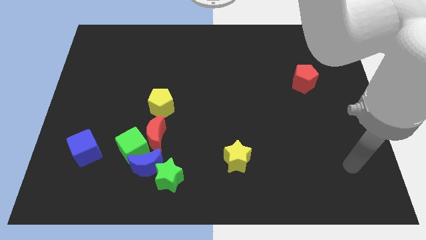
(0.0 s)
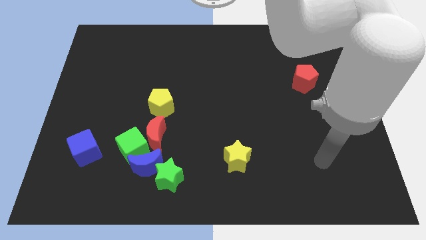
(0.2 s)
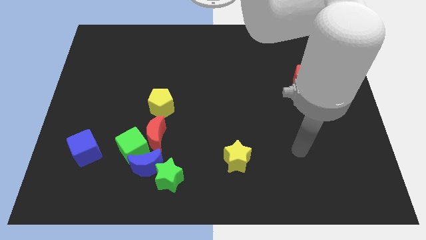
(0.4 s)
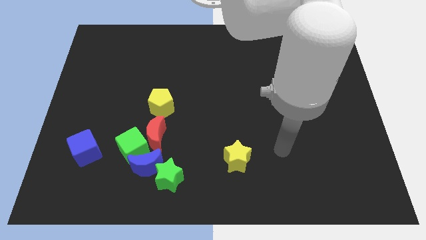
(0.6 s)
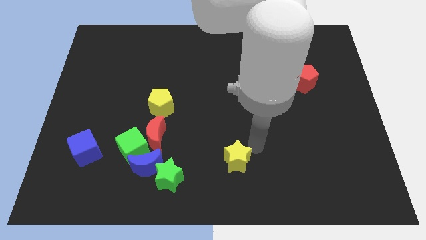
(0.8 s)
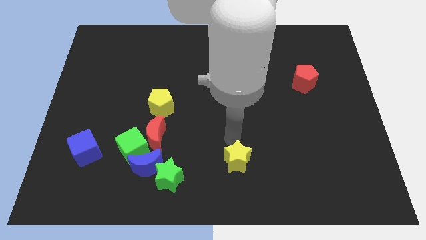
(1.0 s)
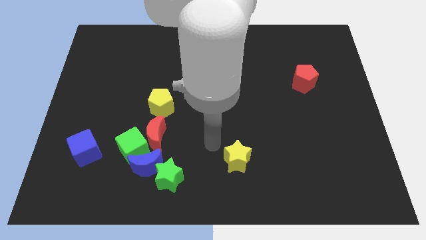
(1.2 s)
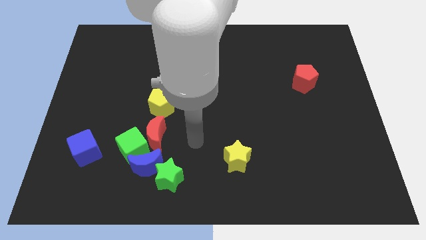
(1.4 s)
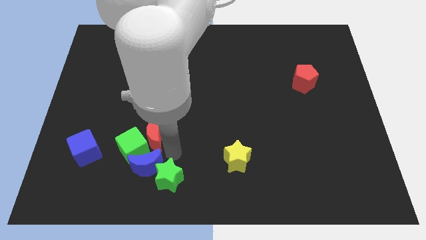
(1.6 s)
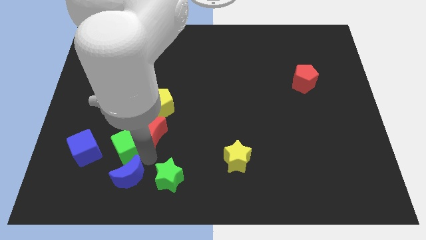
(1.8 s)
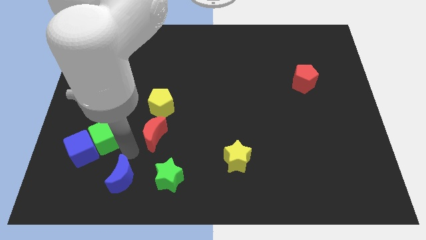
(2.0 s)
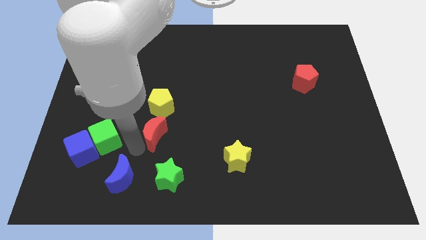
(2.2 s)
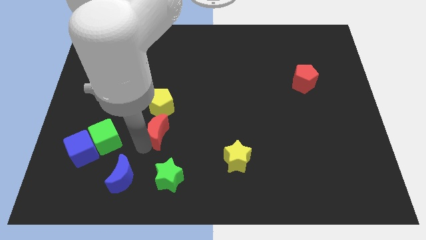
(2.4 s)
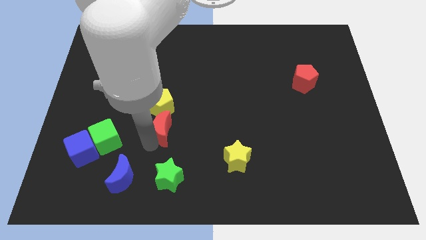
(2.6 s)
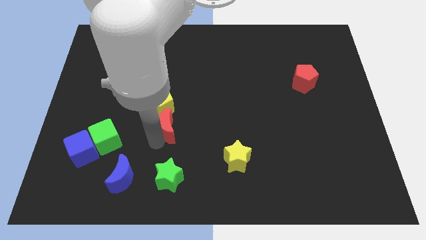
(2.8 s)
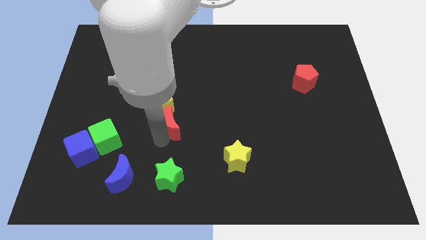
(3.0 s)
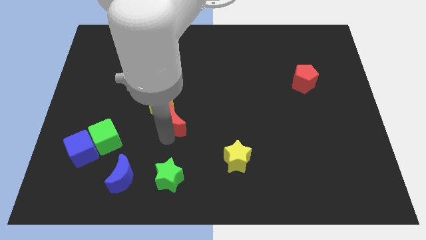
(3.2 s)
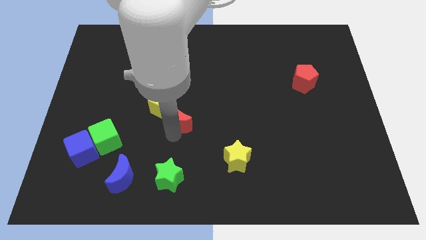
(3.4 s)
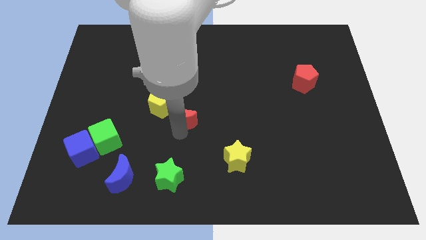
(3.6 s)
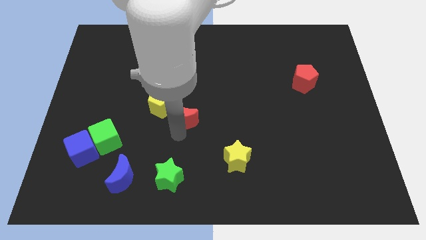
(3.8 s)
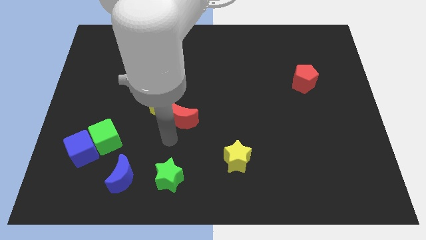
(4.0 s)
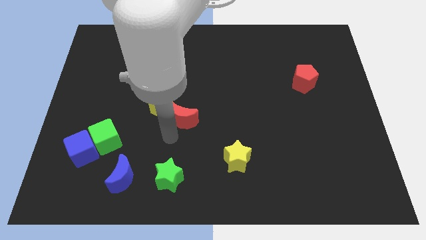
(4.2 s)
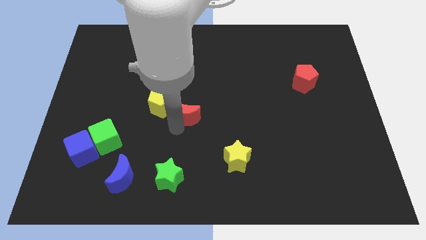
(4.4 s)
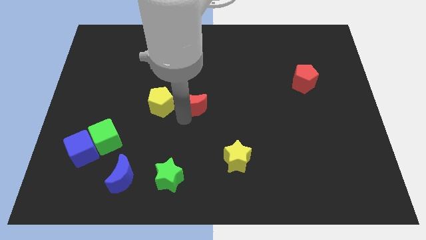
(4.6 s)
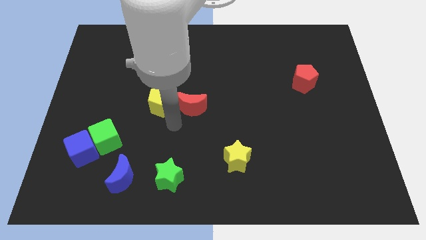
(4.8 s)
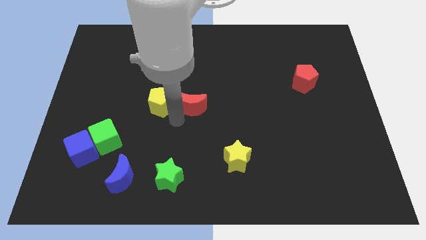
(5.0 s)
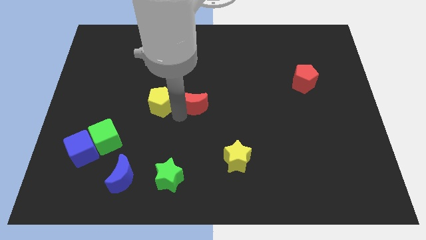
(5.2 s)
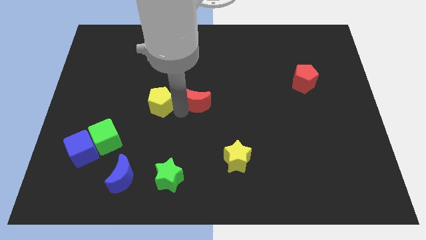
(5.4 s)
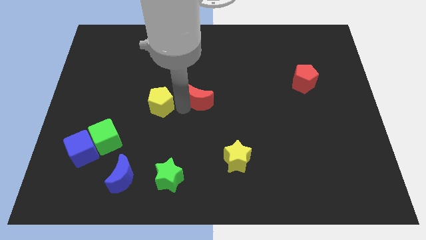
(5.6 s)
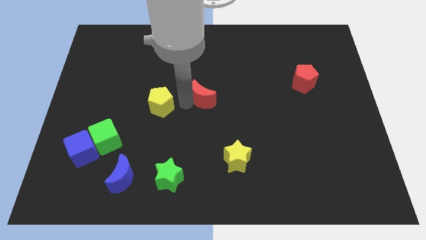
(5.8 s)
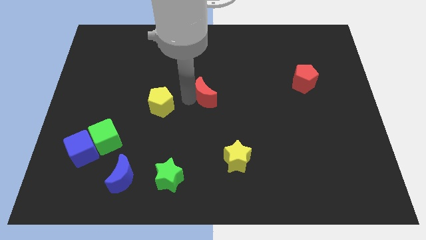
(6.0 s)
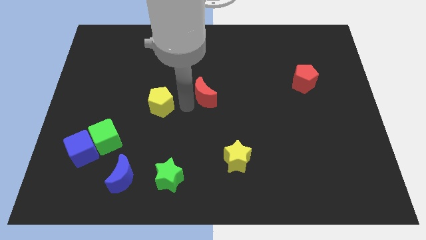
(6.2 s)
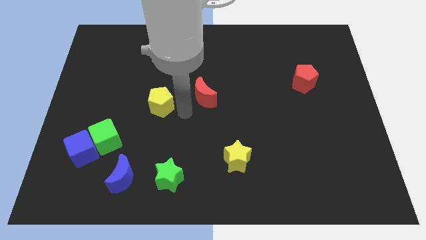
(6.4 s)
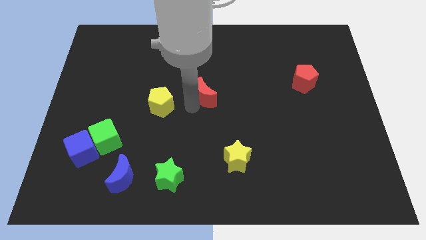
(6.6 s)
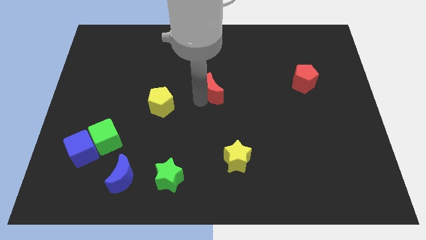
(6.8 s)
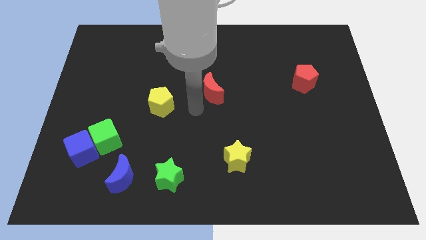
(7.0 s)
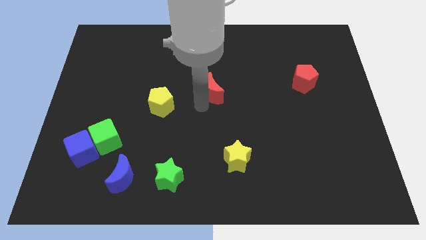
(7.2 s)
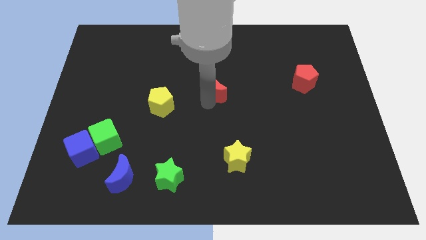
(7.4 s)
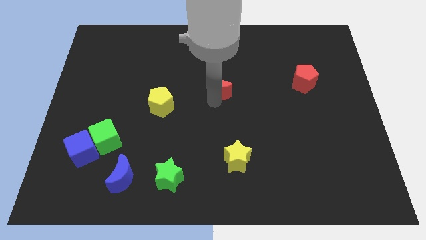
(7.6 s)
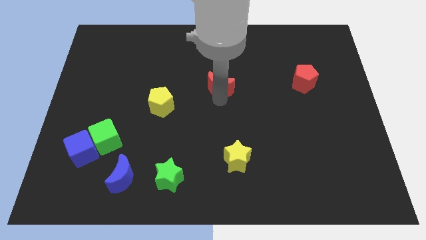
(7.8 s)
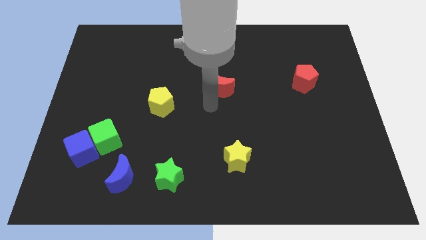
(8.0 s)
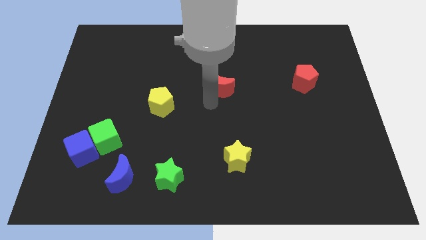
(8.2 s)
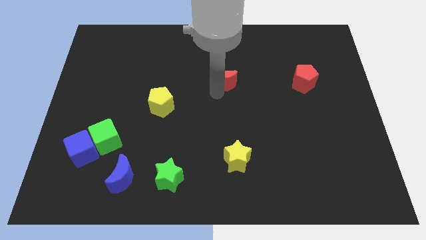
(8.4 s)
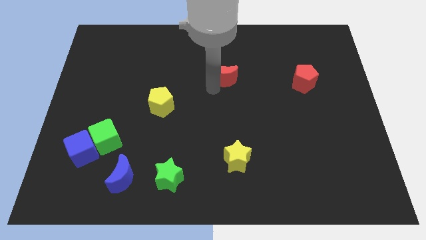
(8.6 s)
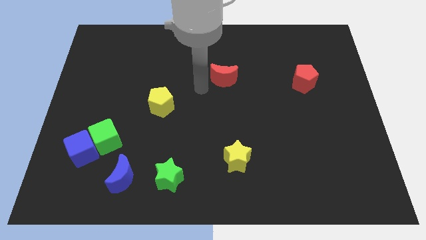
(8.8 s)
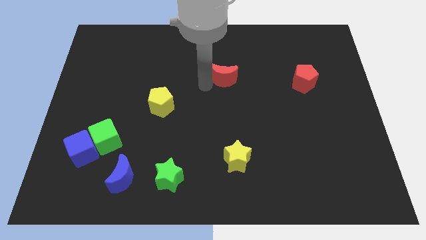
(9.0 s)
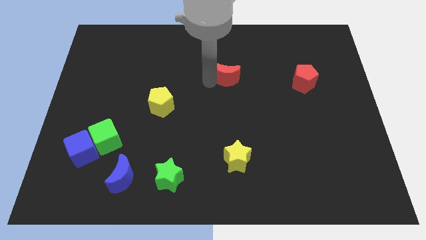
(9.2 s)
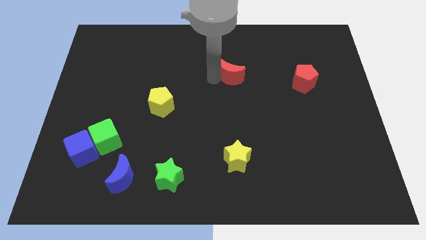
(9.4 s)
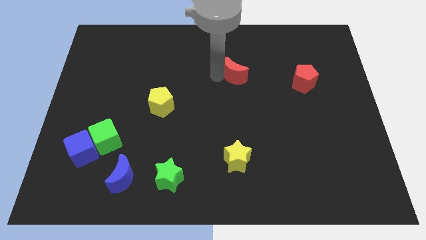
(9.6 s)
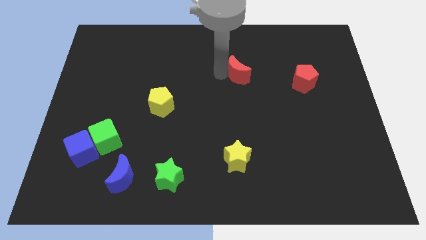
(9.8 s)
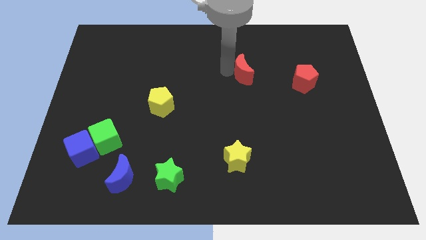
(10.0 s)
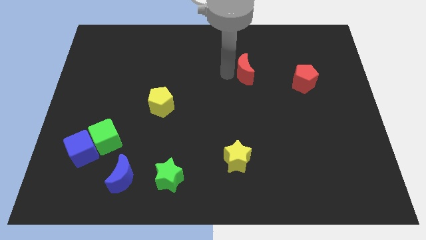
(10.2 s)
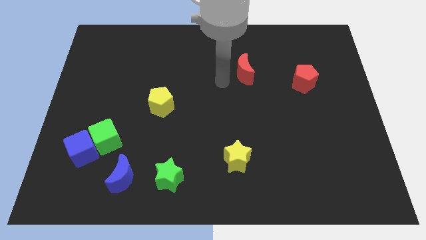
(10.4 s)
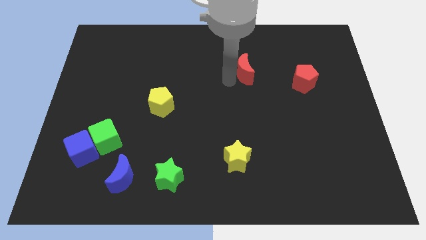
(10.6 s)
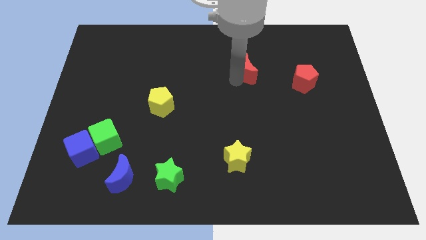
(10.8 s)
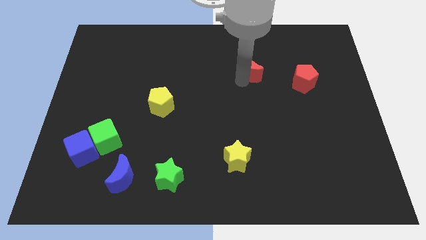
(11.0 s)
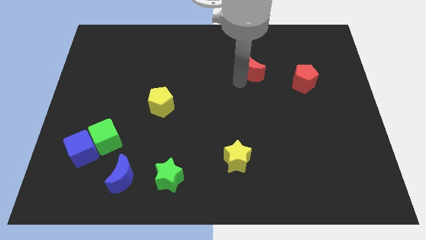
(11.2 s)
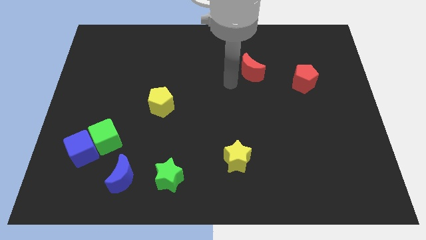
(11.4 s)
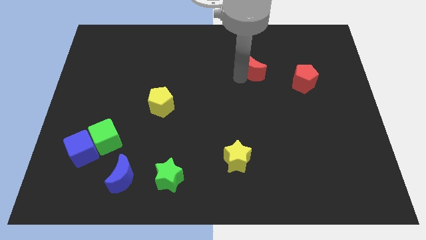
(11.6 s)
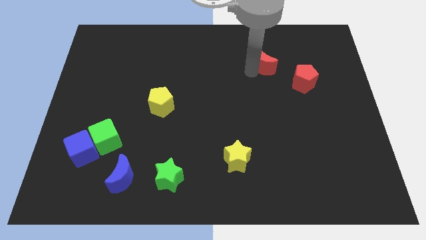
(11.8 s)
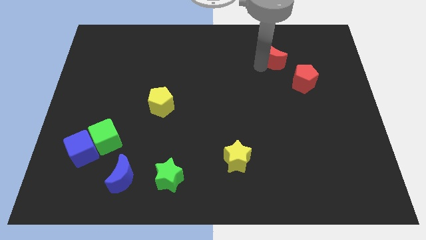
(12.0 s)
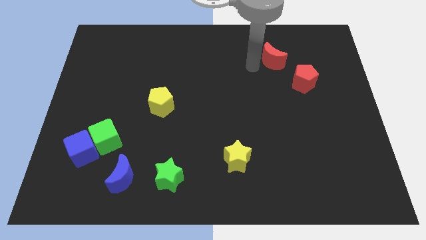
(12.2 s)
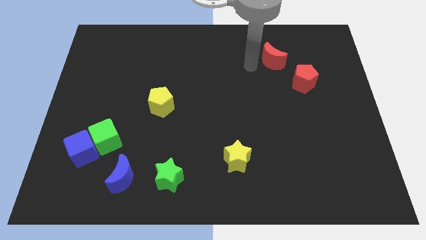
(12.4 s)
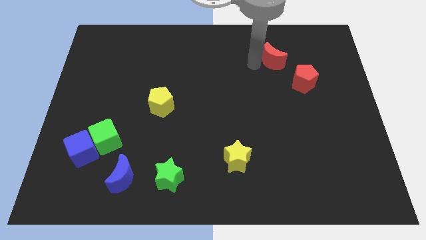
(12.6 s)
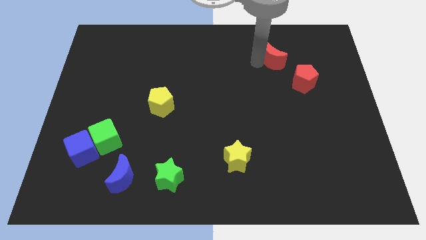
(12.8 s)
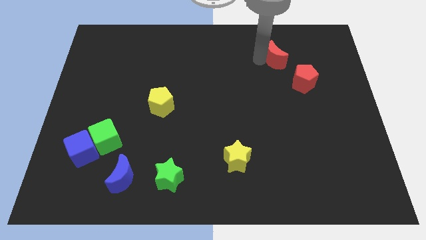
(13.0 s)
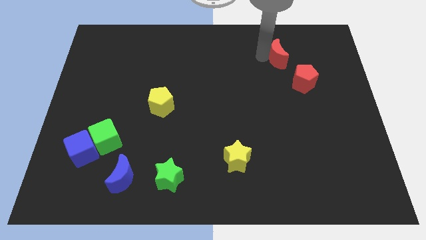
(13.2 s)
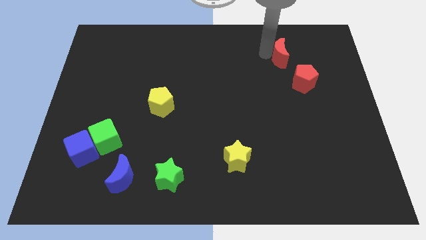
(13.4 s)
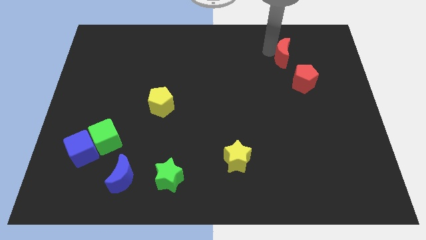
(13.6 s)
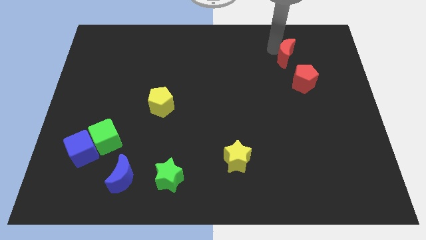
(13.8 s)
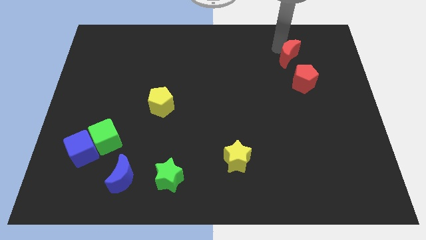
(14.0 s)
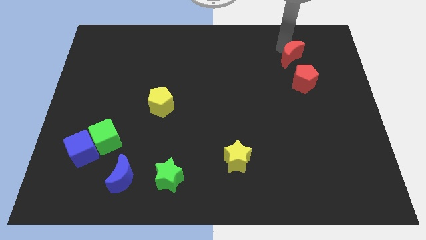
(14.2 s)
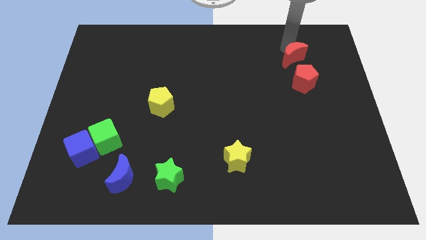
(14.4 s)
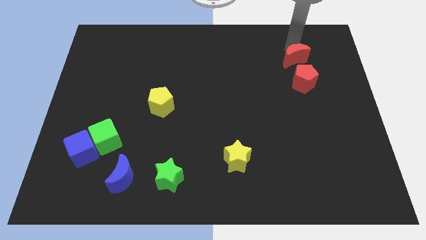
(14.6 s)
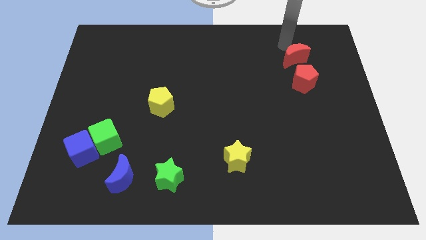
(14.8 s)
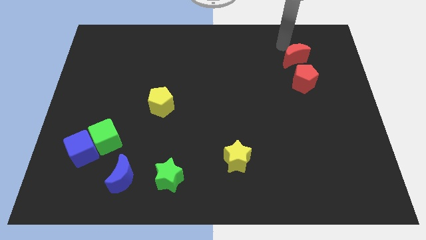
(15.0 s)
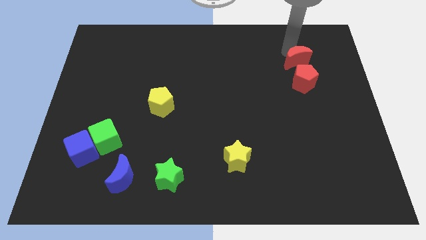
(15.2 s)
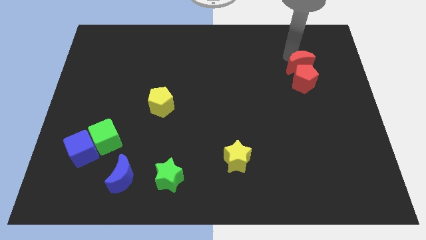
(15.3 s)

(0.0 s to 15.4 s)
move the red moon to the top right of the red pentagon
